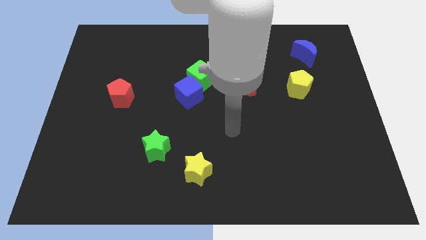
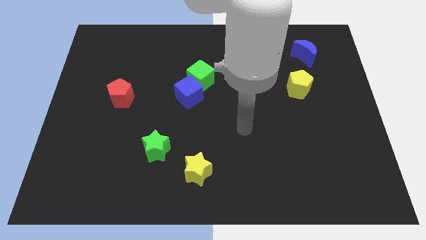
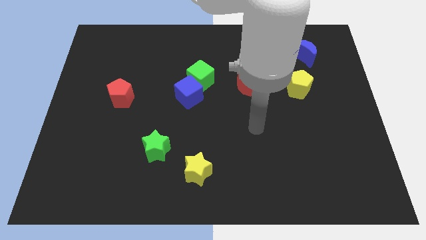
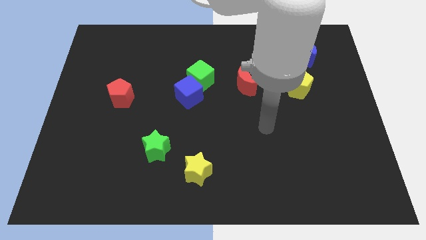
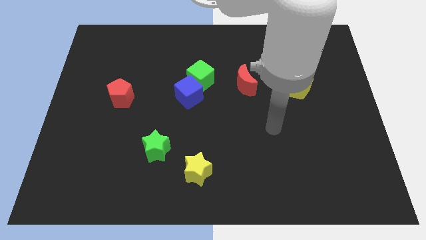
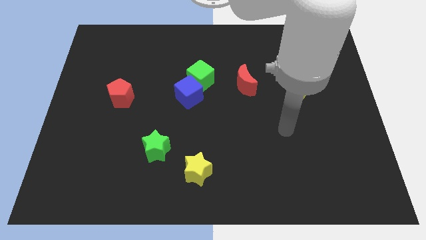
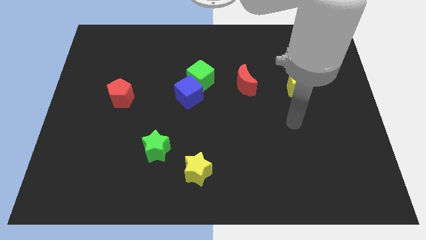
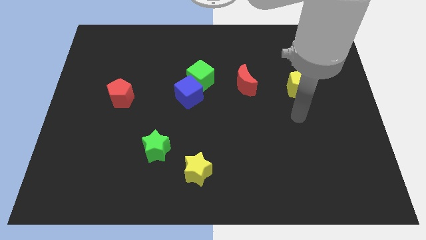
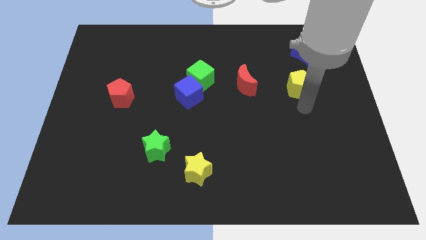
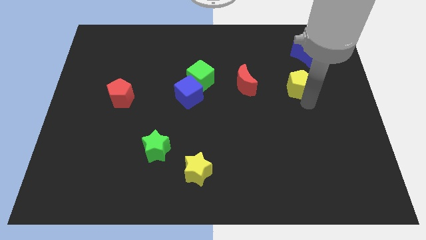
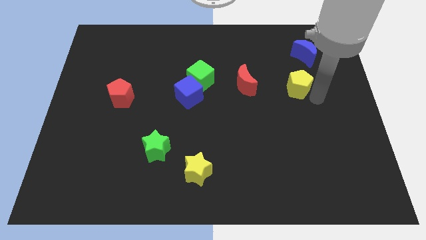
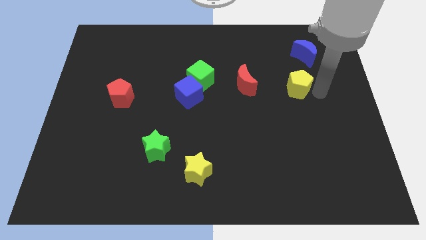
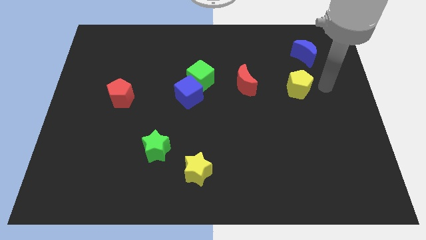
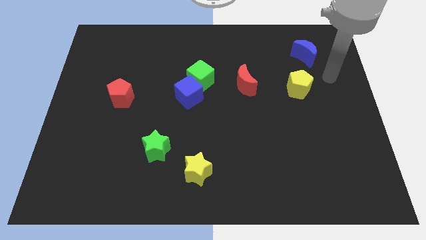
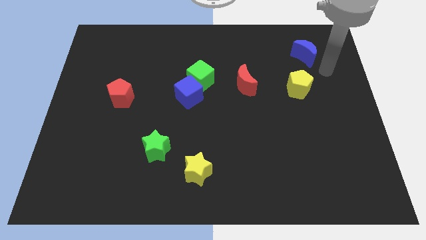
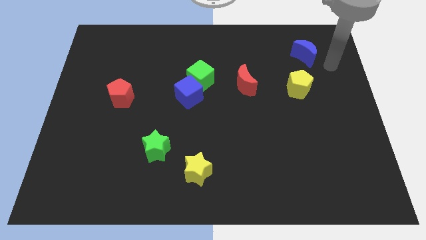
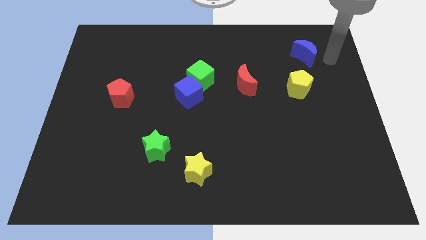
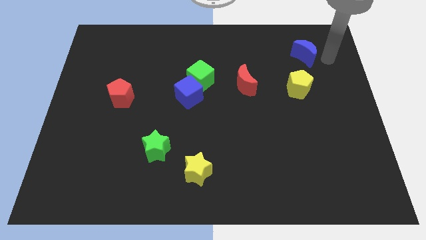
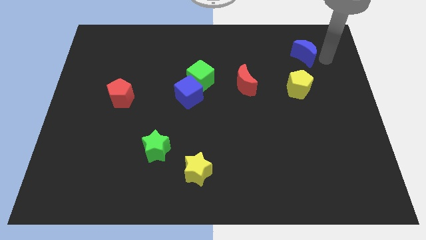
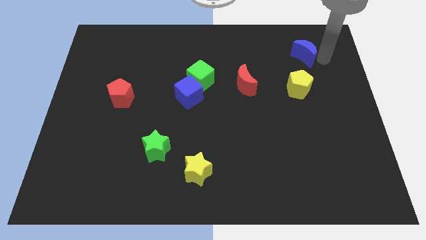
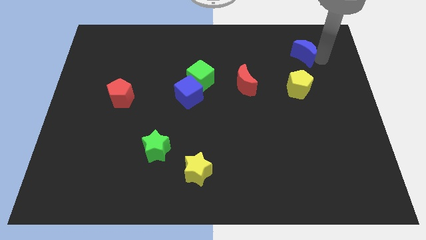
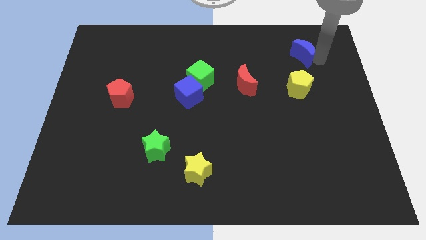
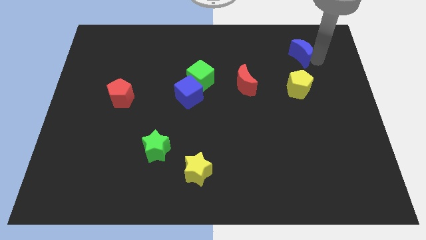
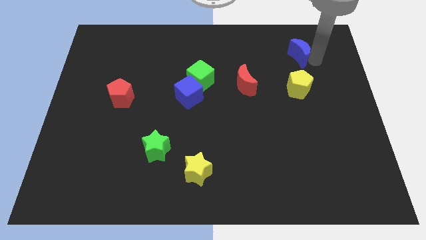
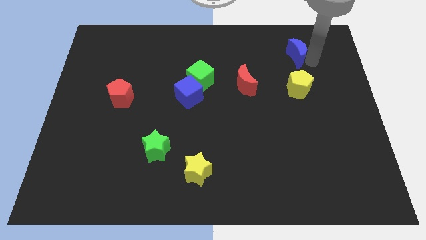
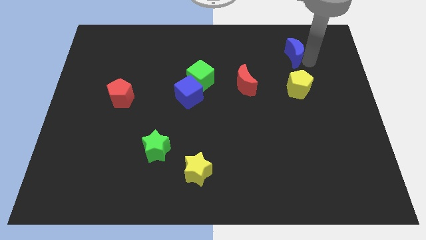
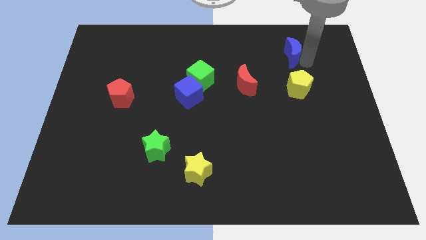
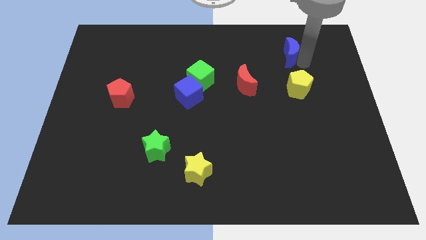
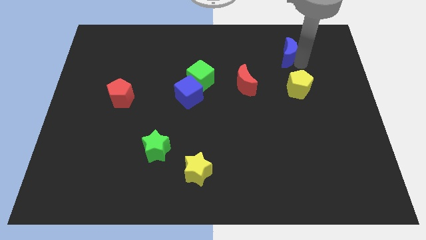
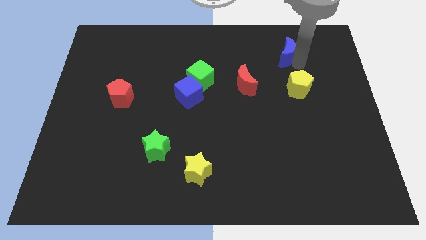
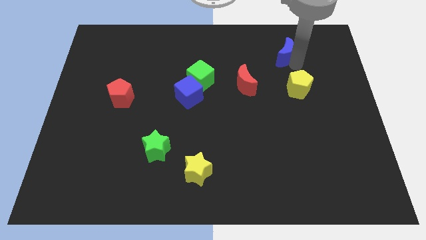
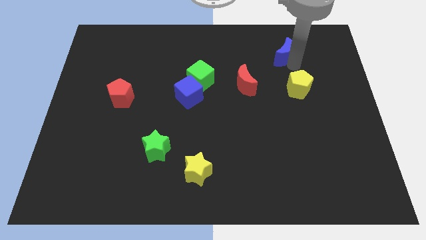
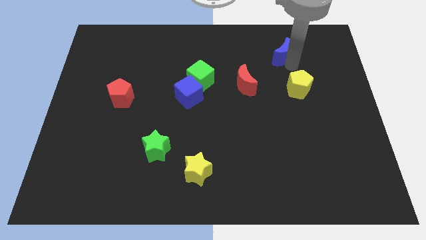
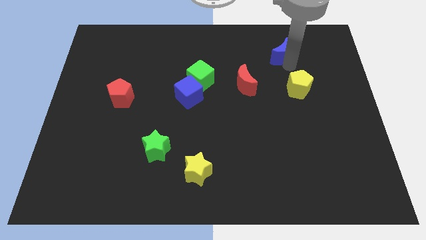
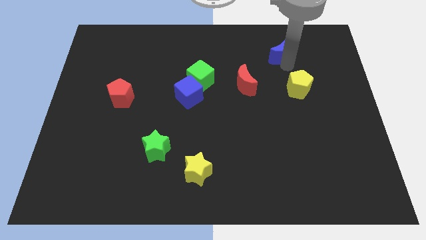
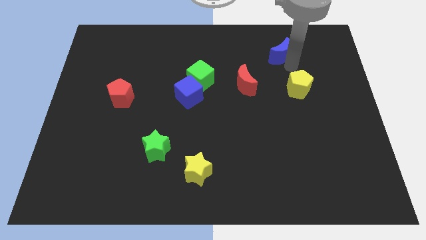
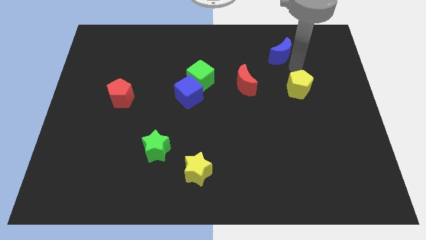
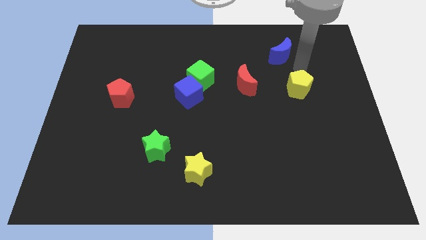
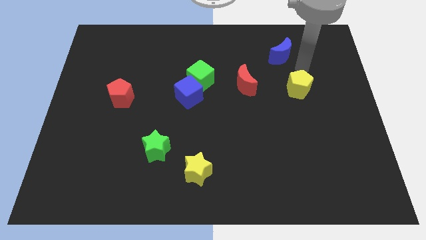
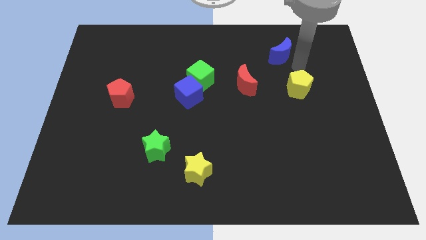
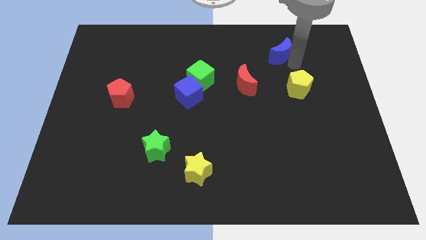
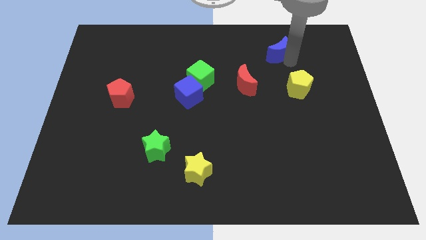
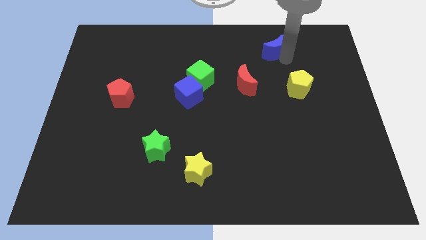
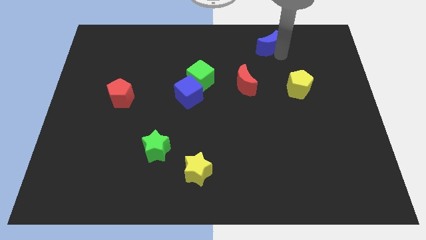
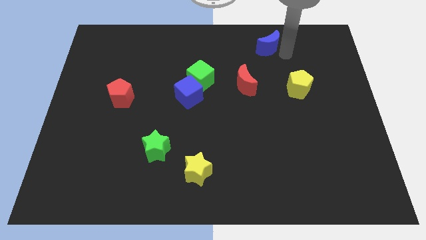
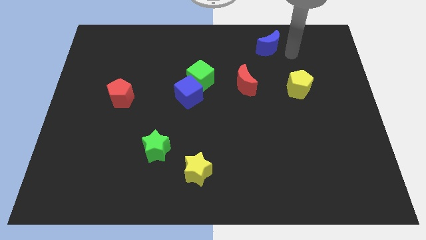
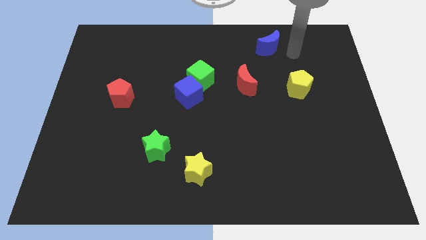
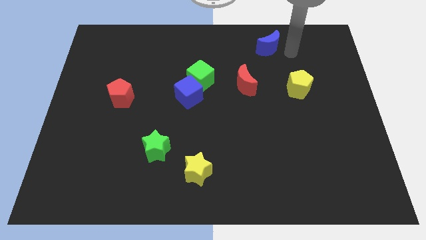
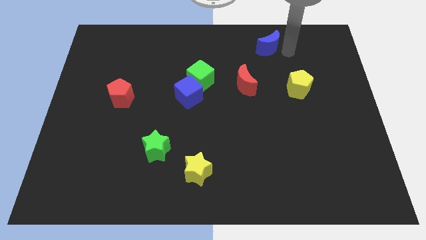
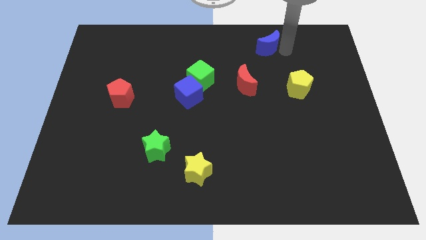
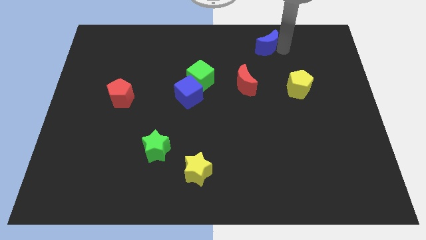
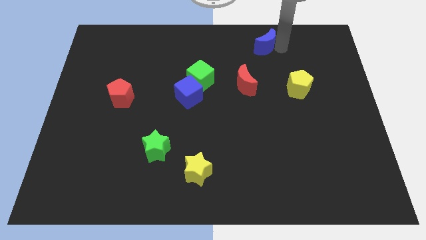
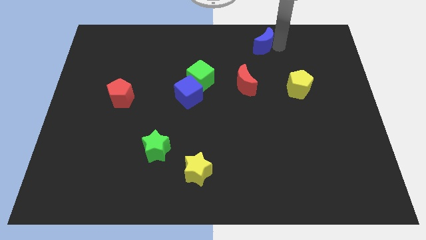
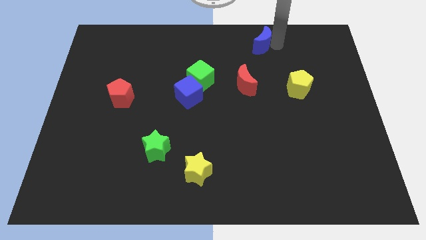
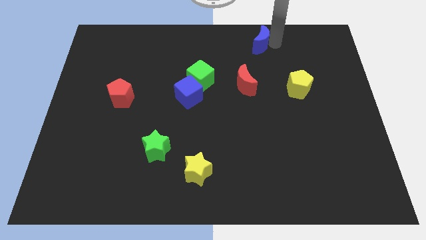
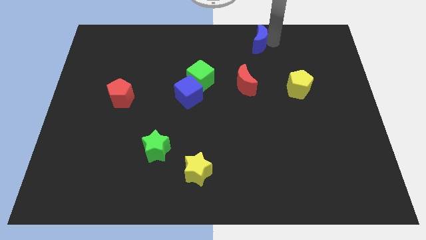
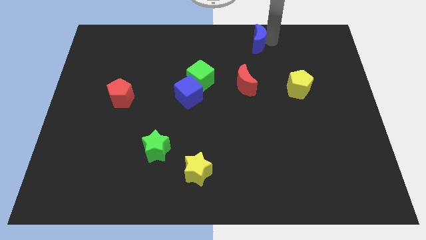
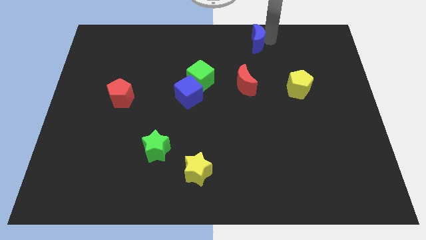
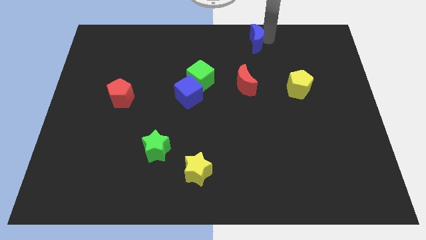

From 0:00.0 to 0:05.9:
push the blue moon to the top side
